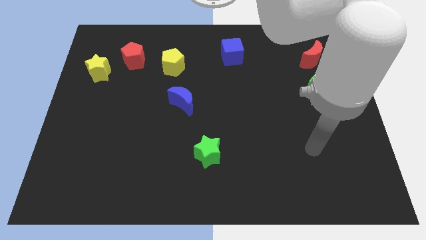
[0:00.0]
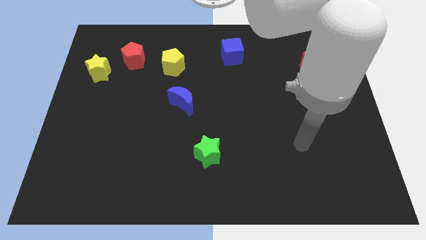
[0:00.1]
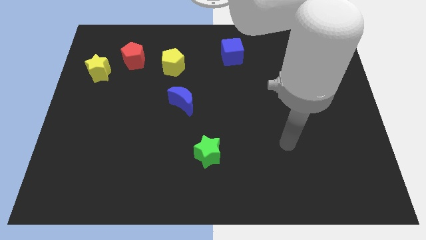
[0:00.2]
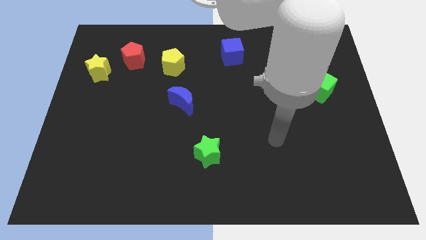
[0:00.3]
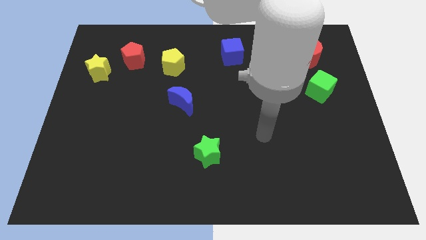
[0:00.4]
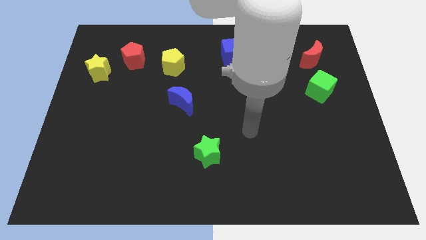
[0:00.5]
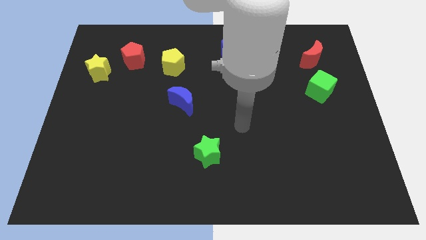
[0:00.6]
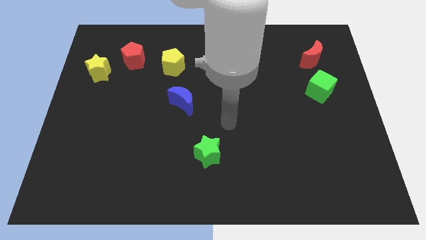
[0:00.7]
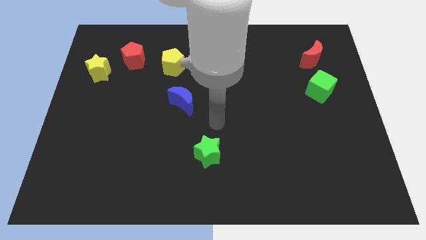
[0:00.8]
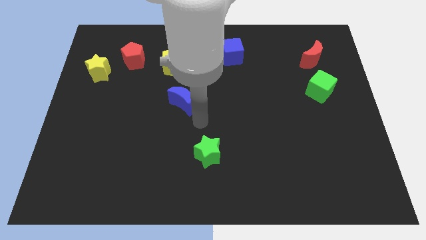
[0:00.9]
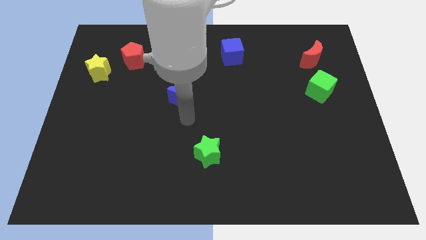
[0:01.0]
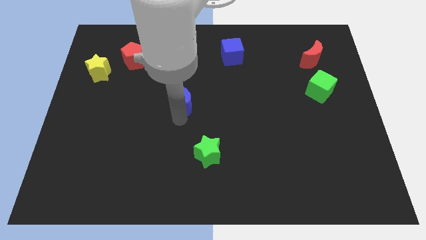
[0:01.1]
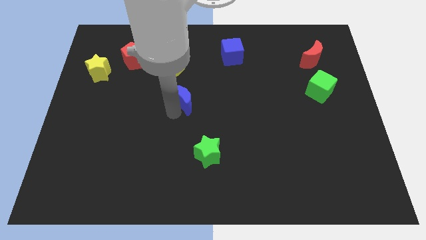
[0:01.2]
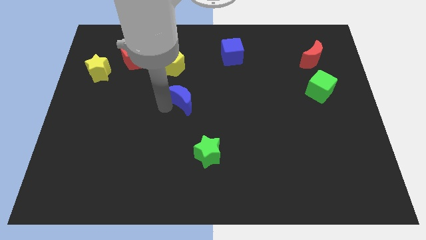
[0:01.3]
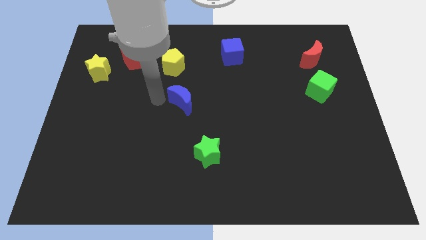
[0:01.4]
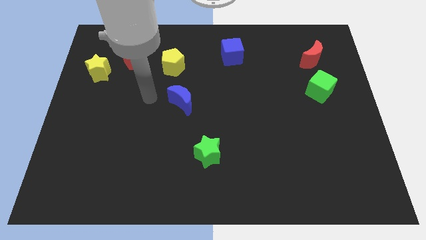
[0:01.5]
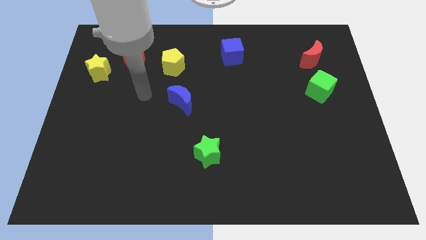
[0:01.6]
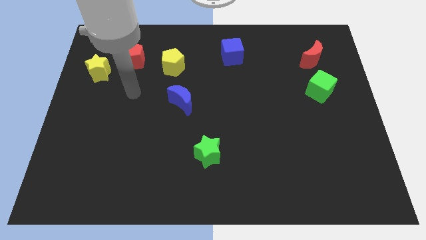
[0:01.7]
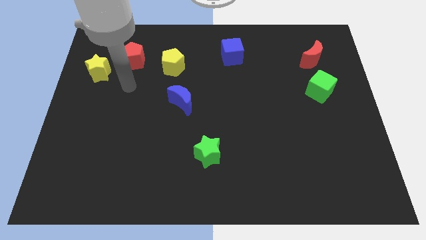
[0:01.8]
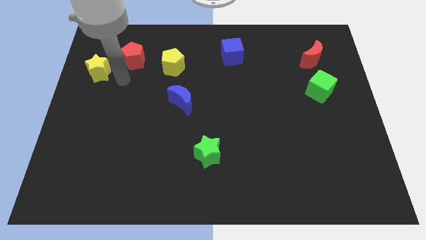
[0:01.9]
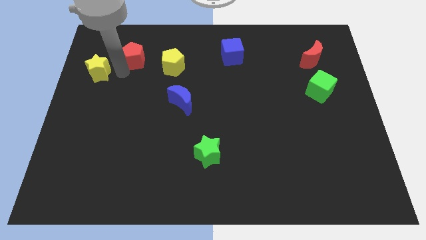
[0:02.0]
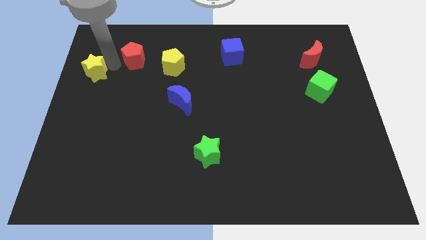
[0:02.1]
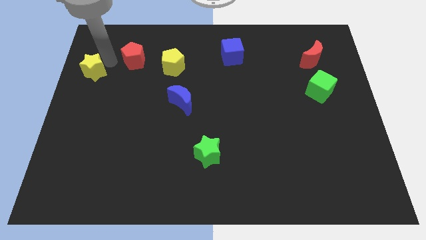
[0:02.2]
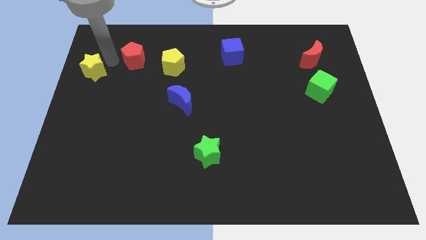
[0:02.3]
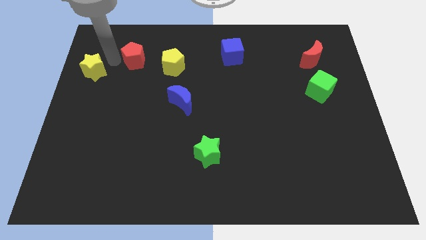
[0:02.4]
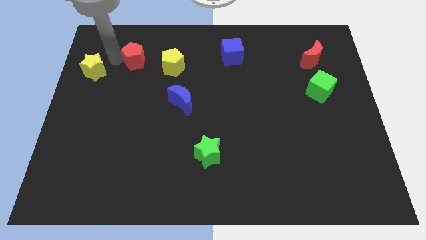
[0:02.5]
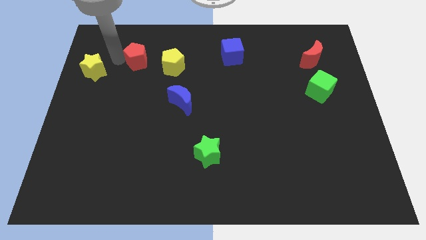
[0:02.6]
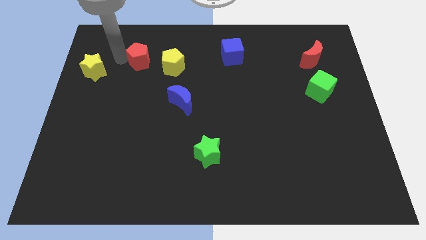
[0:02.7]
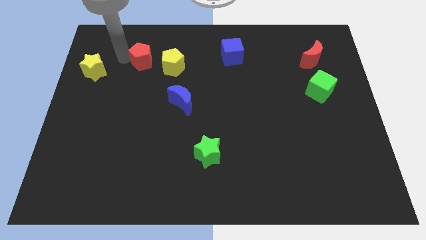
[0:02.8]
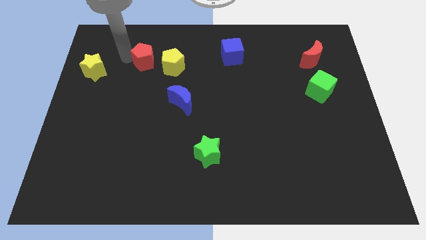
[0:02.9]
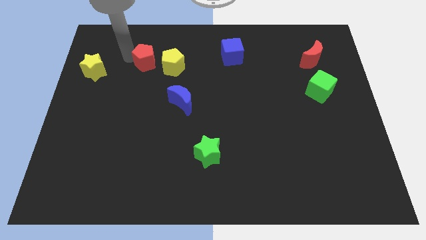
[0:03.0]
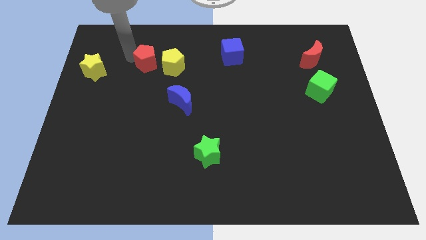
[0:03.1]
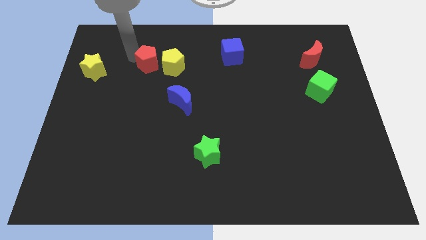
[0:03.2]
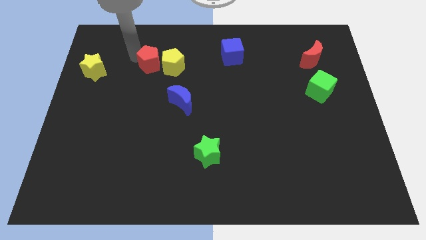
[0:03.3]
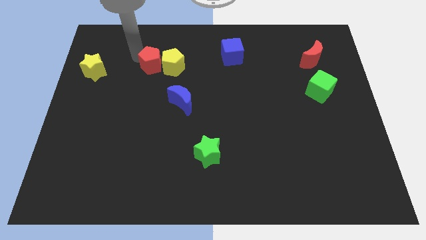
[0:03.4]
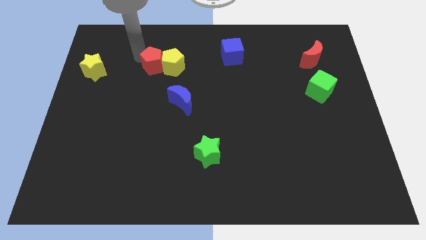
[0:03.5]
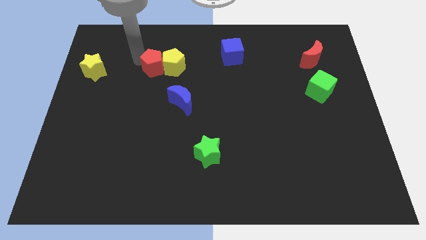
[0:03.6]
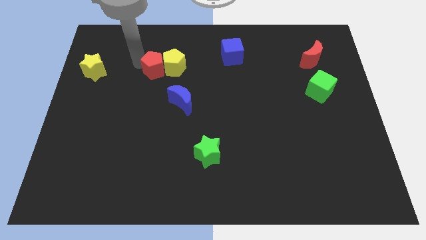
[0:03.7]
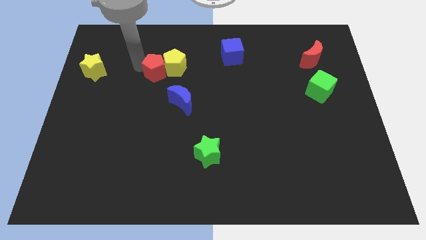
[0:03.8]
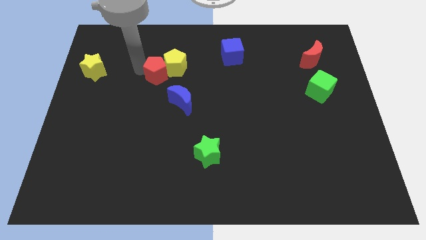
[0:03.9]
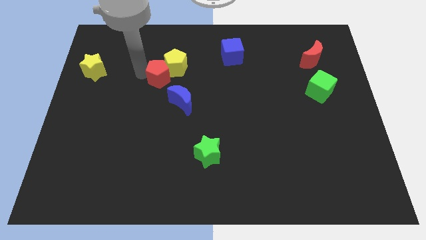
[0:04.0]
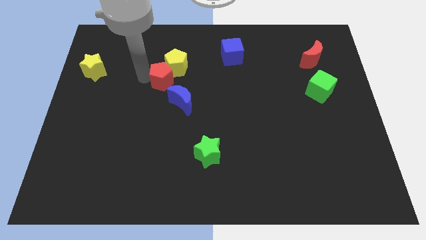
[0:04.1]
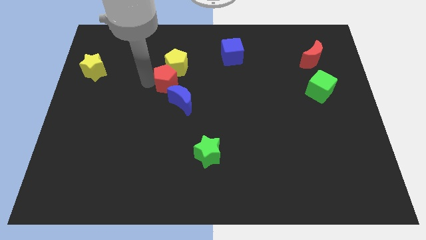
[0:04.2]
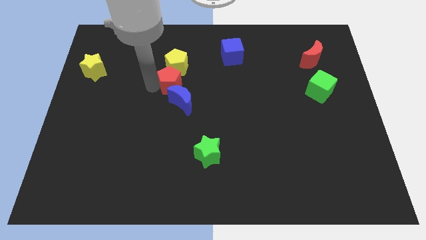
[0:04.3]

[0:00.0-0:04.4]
slightly slide the red pentagon to the right

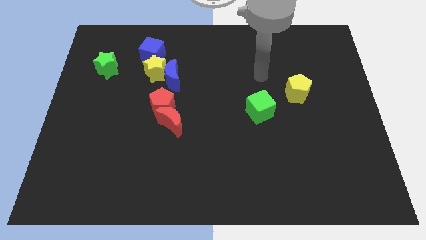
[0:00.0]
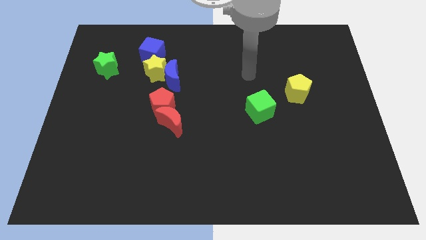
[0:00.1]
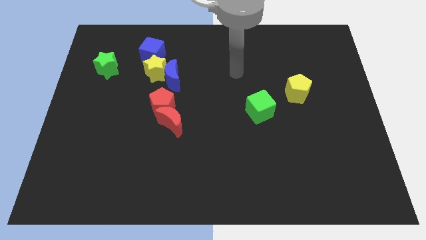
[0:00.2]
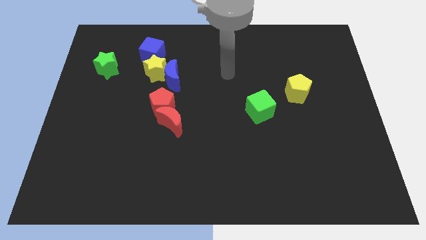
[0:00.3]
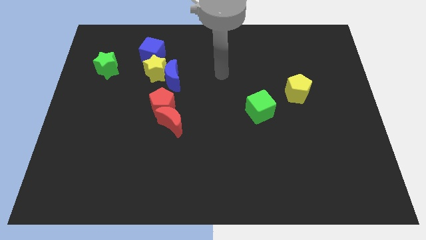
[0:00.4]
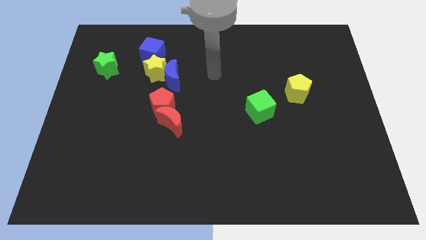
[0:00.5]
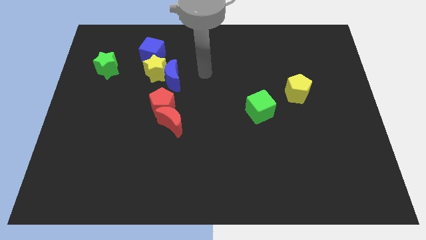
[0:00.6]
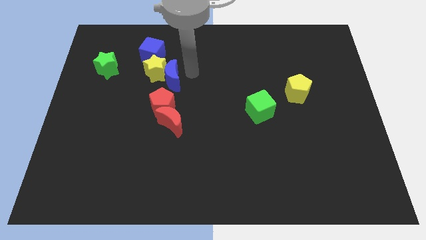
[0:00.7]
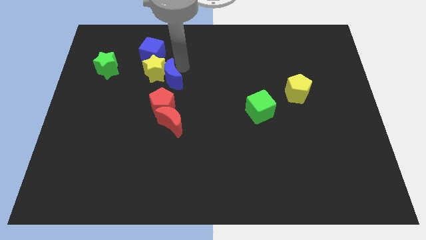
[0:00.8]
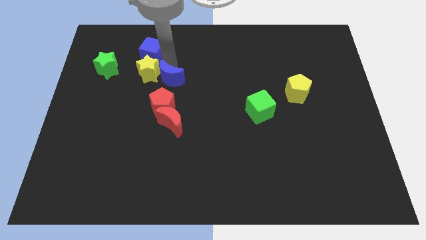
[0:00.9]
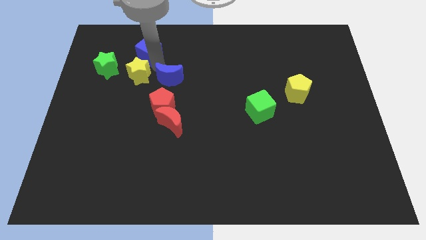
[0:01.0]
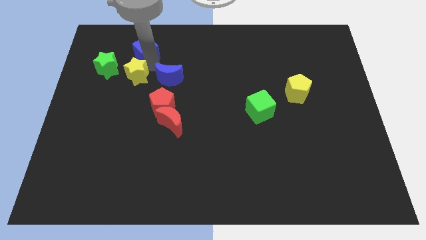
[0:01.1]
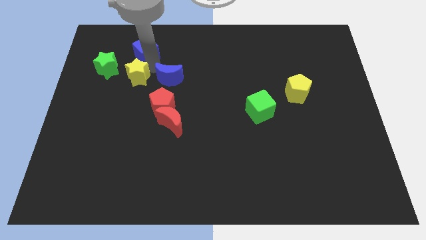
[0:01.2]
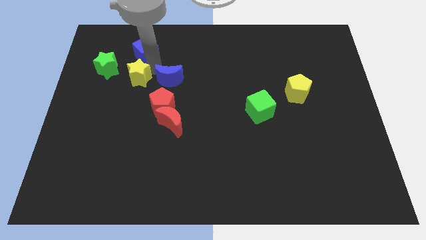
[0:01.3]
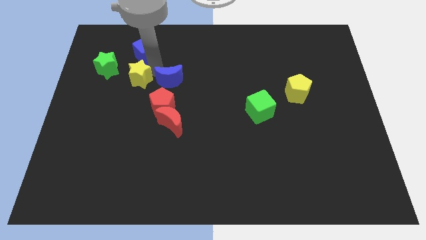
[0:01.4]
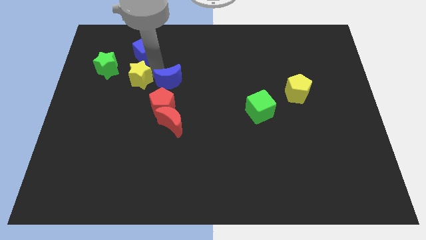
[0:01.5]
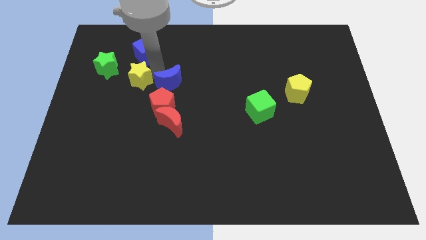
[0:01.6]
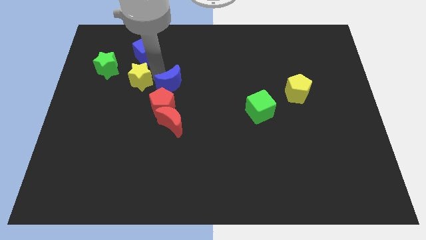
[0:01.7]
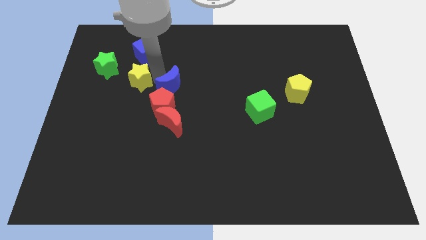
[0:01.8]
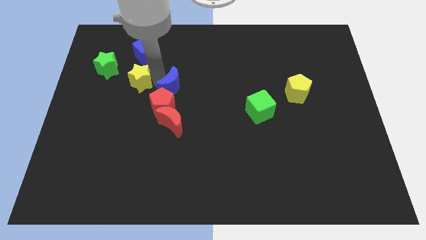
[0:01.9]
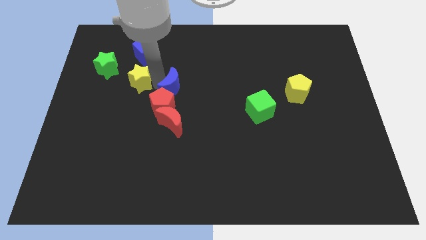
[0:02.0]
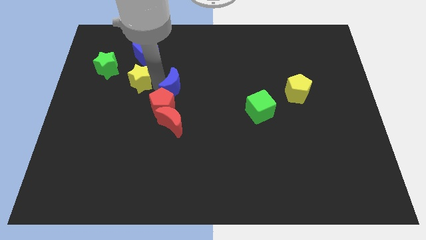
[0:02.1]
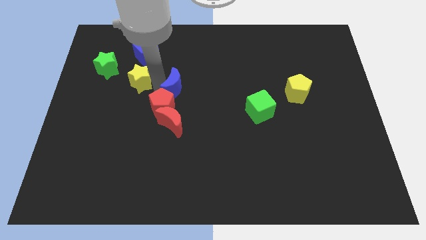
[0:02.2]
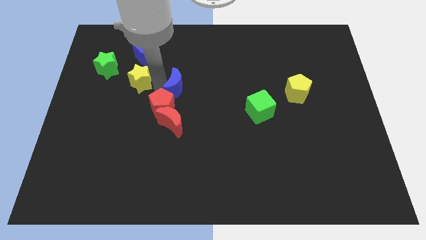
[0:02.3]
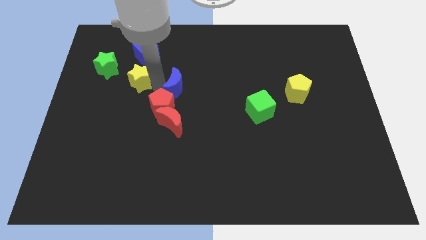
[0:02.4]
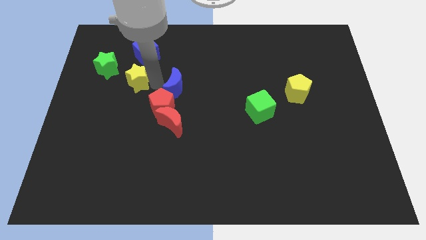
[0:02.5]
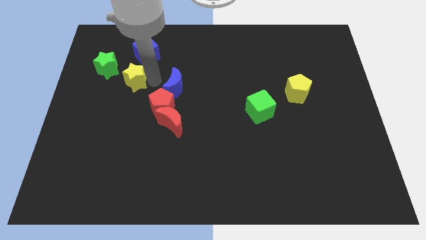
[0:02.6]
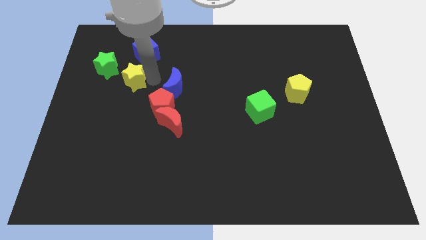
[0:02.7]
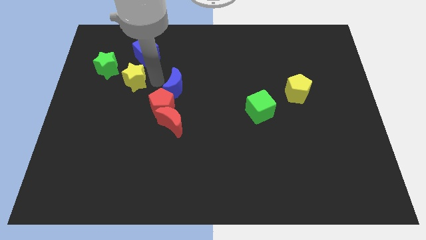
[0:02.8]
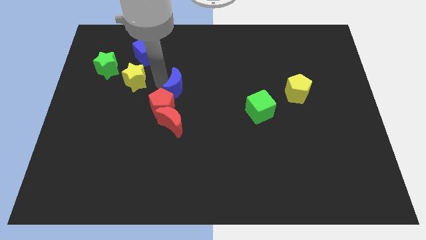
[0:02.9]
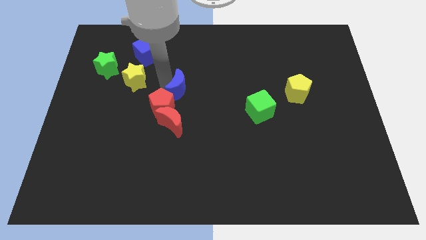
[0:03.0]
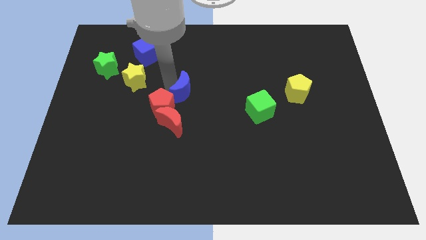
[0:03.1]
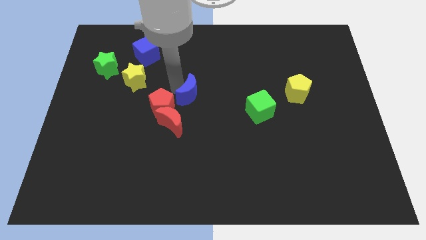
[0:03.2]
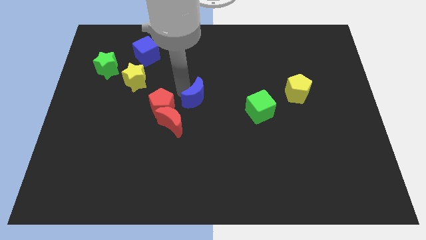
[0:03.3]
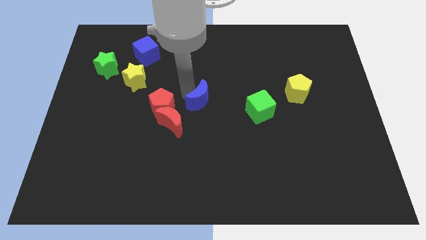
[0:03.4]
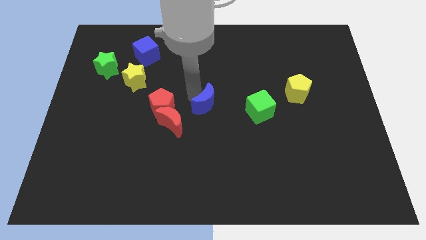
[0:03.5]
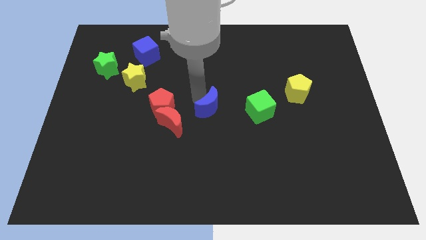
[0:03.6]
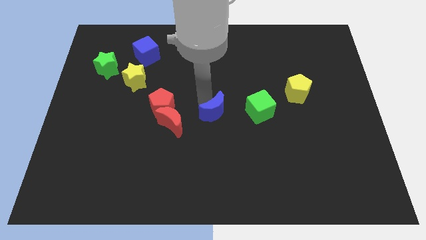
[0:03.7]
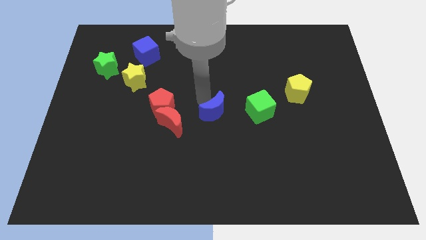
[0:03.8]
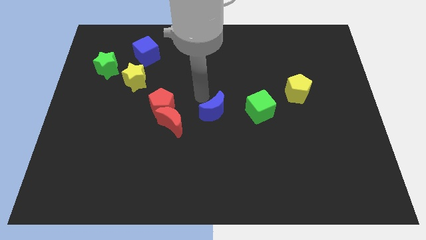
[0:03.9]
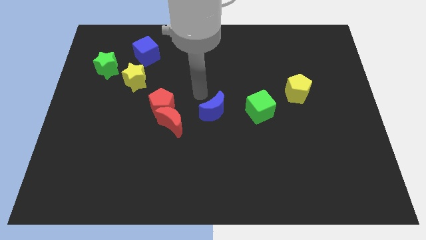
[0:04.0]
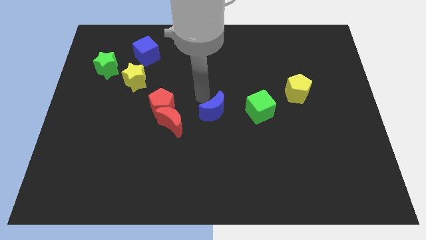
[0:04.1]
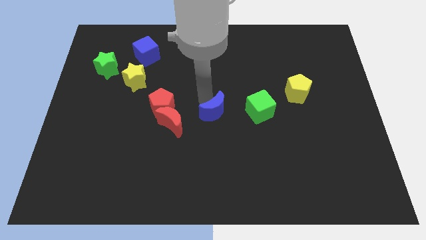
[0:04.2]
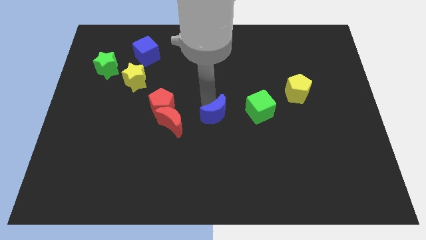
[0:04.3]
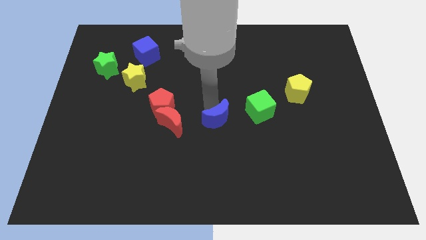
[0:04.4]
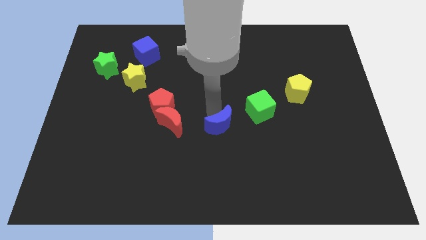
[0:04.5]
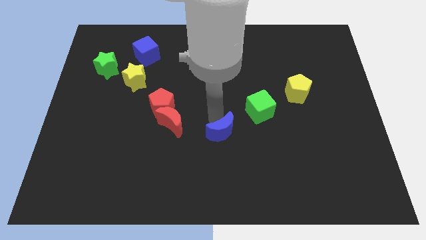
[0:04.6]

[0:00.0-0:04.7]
push the blue moon down and right
